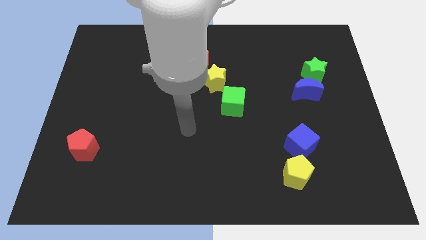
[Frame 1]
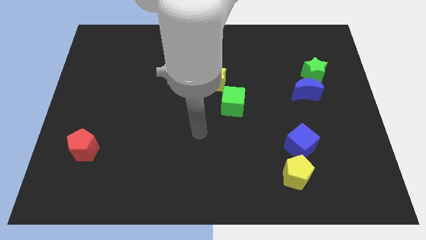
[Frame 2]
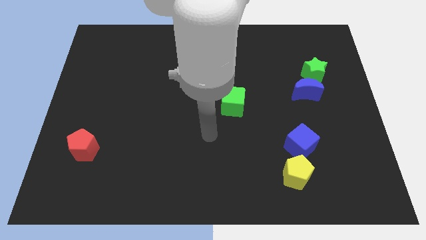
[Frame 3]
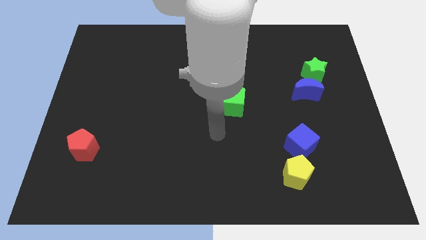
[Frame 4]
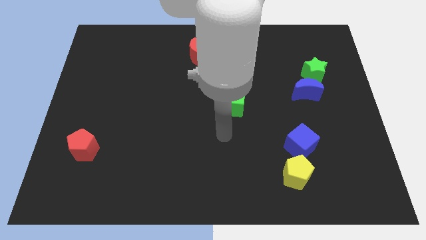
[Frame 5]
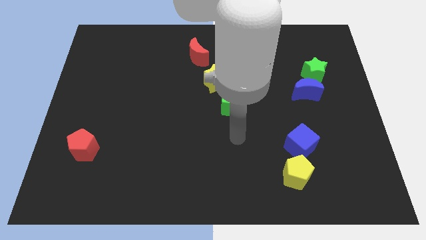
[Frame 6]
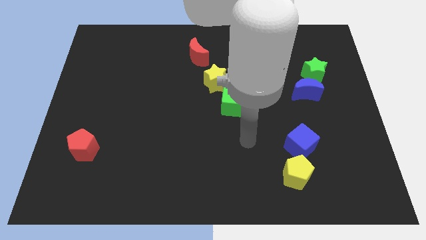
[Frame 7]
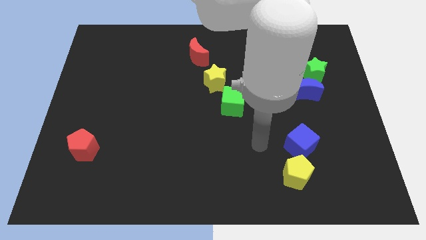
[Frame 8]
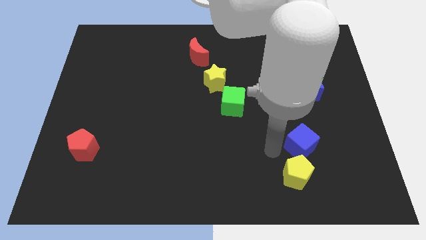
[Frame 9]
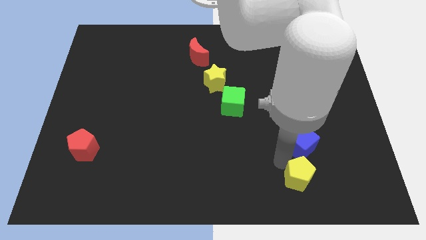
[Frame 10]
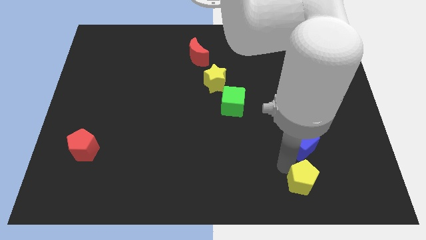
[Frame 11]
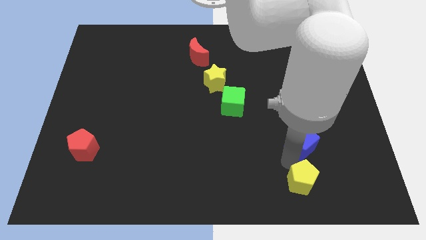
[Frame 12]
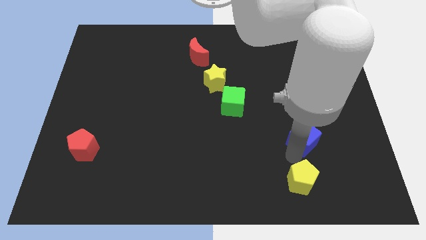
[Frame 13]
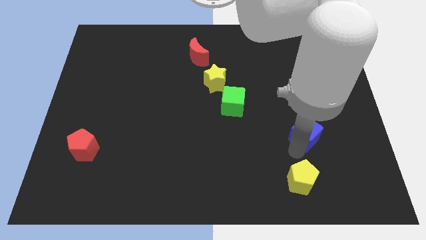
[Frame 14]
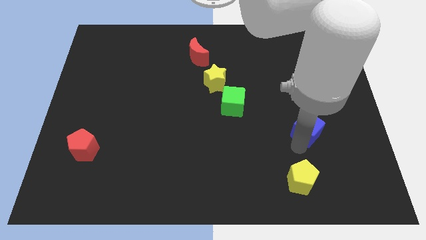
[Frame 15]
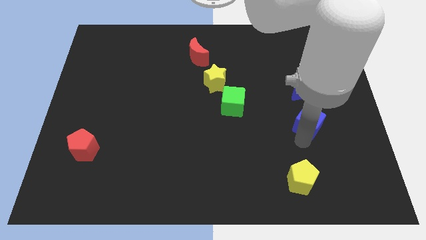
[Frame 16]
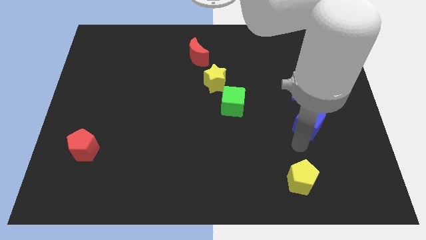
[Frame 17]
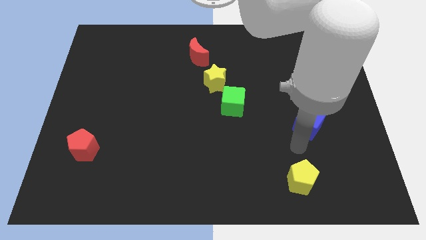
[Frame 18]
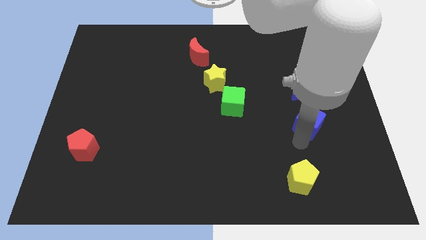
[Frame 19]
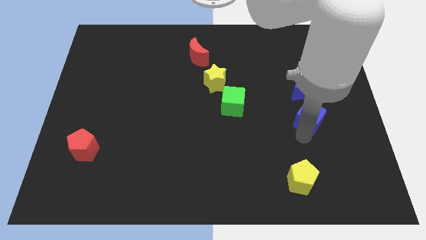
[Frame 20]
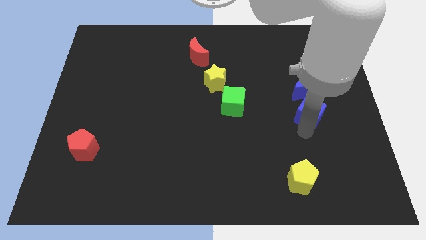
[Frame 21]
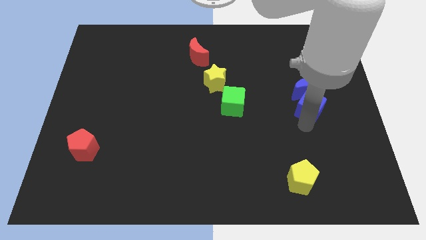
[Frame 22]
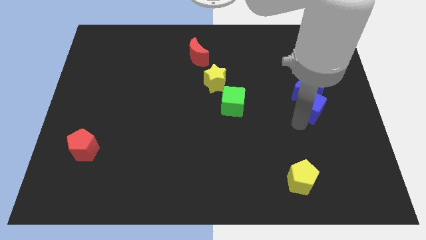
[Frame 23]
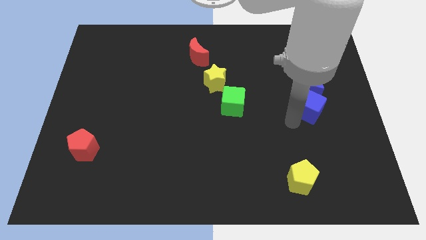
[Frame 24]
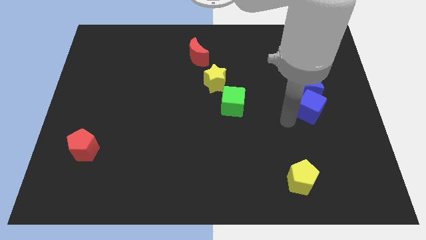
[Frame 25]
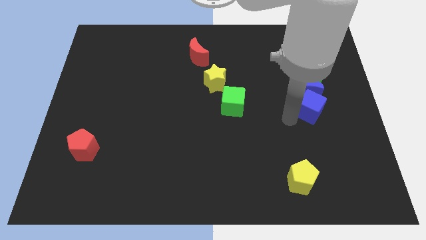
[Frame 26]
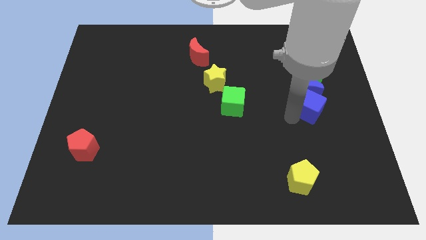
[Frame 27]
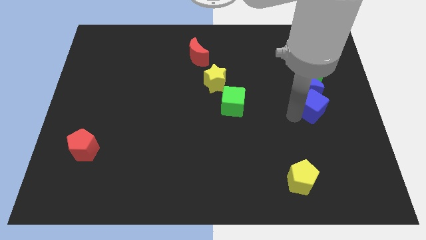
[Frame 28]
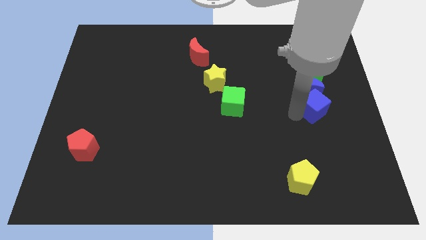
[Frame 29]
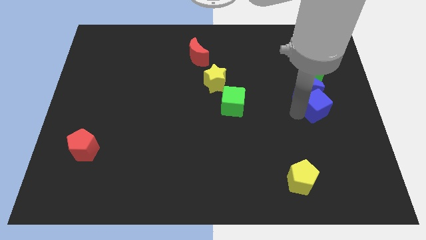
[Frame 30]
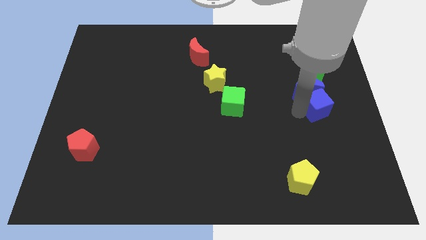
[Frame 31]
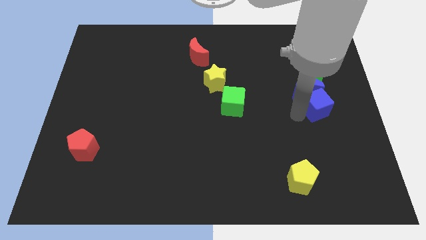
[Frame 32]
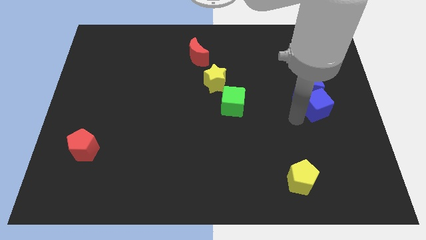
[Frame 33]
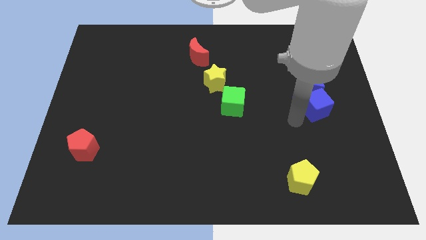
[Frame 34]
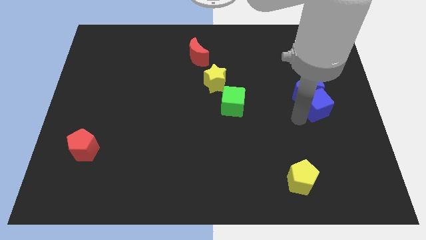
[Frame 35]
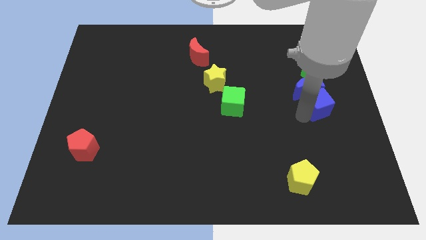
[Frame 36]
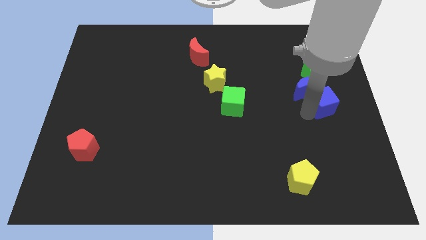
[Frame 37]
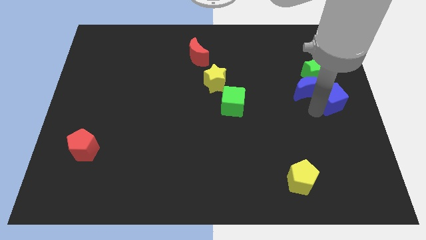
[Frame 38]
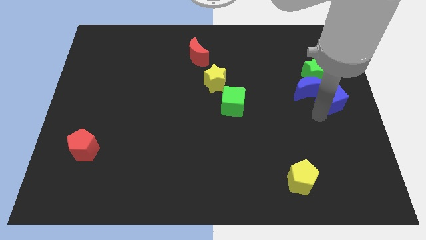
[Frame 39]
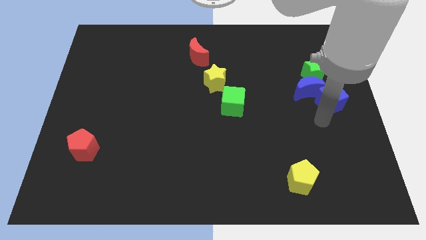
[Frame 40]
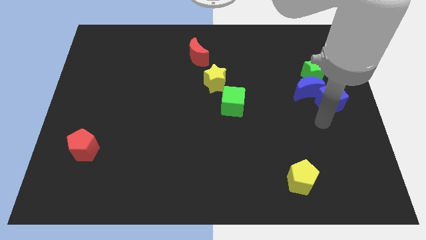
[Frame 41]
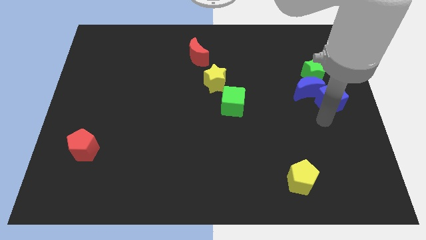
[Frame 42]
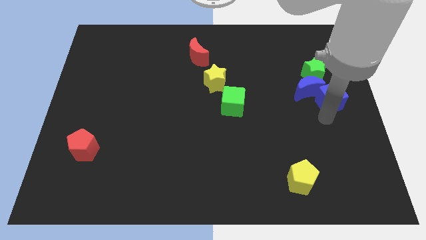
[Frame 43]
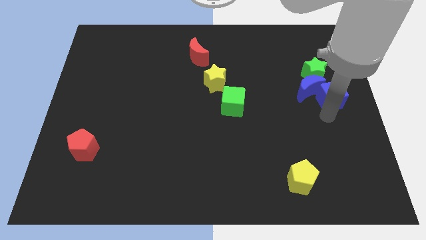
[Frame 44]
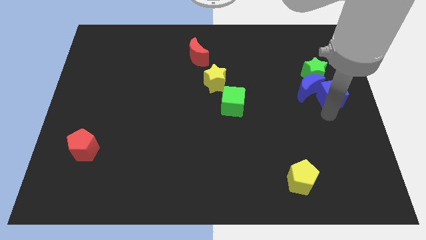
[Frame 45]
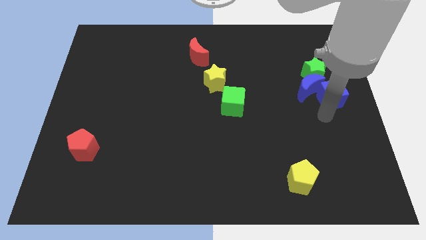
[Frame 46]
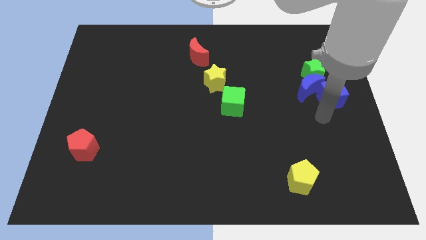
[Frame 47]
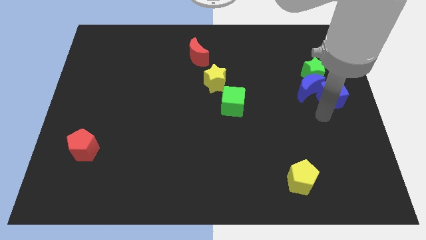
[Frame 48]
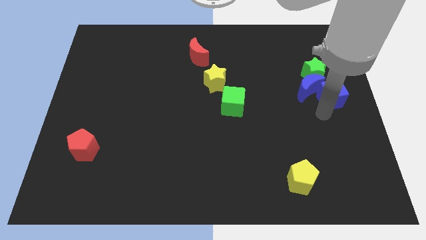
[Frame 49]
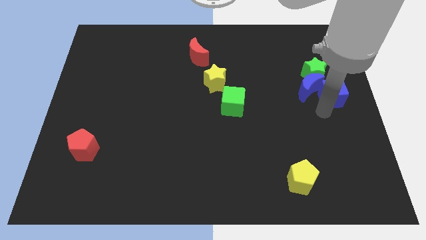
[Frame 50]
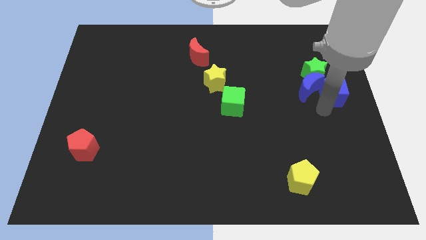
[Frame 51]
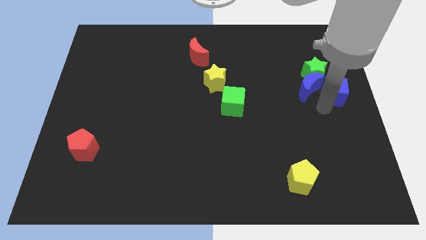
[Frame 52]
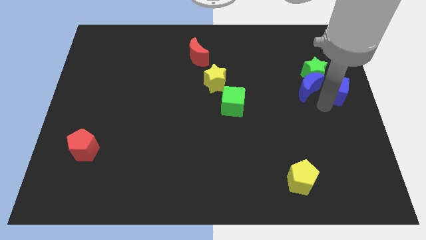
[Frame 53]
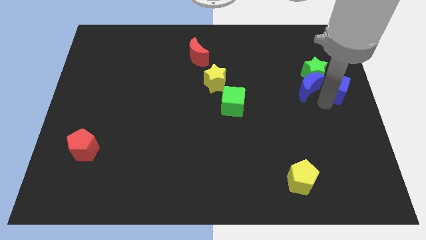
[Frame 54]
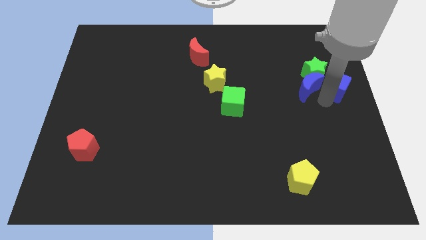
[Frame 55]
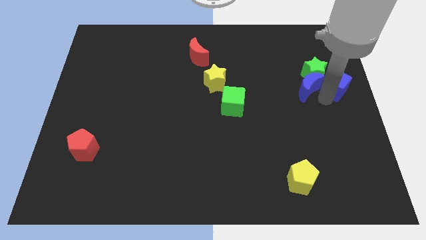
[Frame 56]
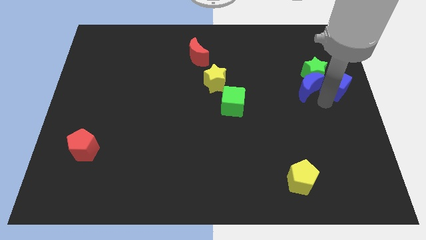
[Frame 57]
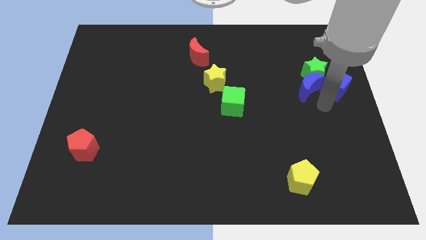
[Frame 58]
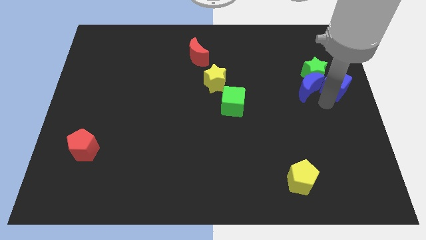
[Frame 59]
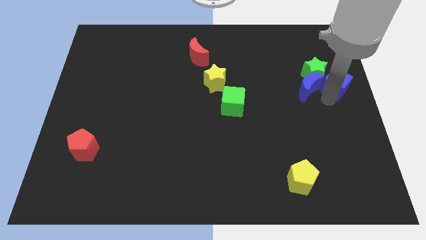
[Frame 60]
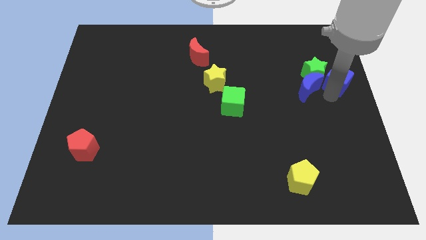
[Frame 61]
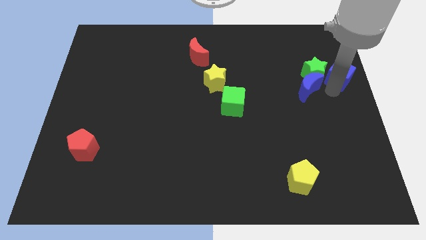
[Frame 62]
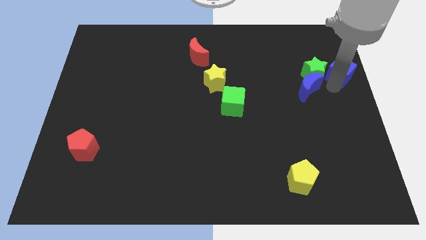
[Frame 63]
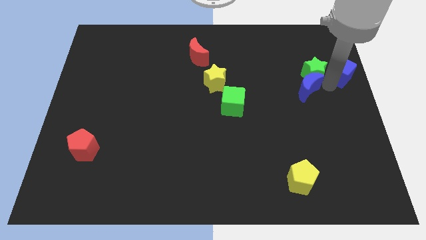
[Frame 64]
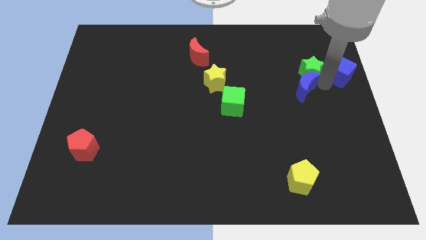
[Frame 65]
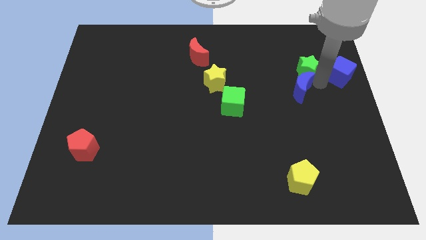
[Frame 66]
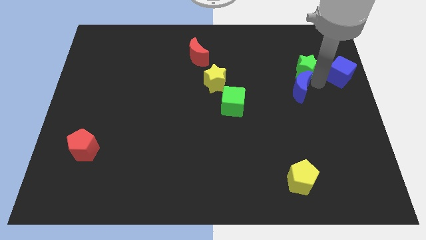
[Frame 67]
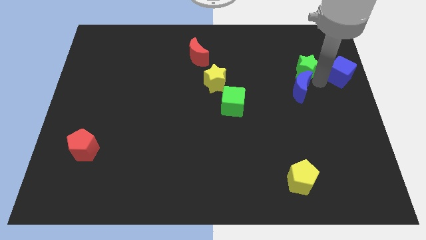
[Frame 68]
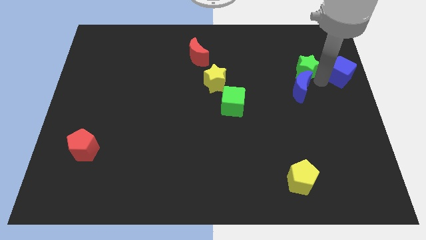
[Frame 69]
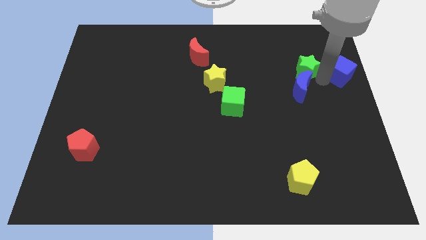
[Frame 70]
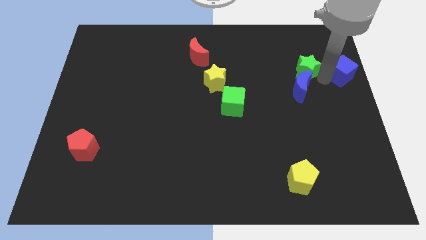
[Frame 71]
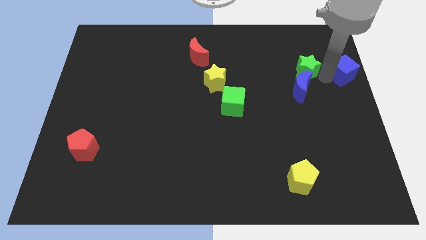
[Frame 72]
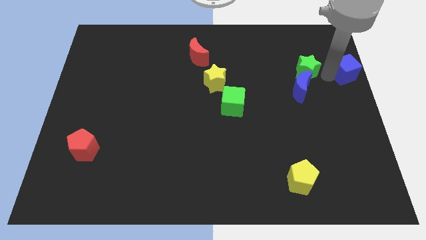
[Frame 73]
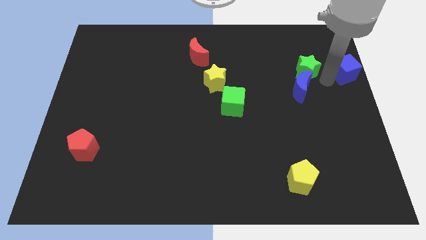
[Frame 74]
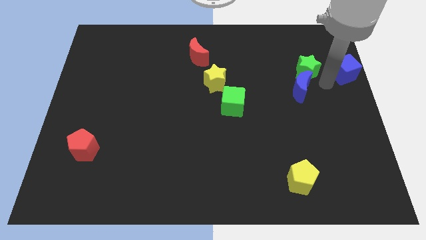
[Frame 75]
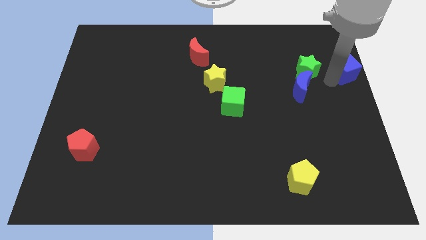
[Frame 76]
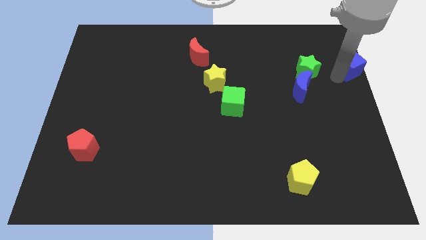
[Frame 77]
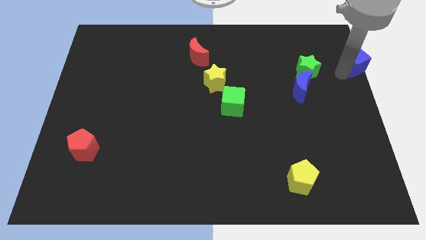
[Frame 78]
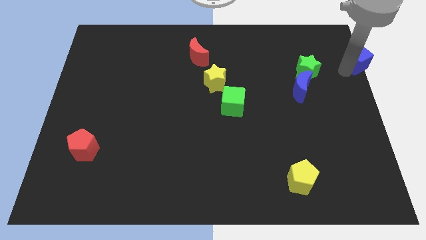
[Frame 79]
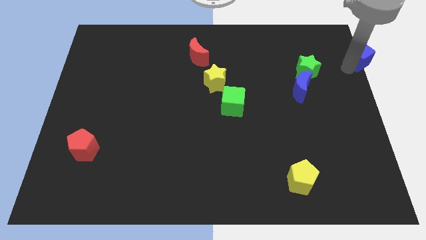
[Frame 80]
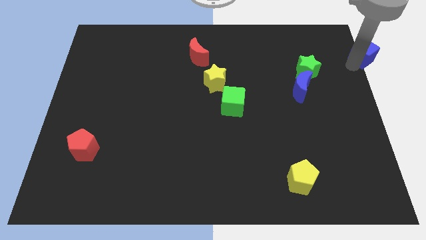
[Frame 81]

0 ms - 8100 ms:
put the blue cube to the top right
